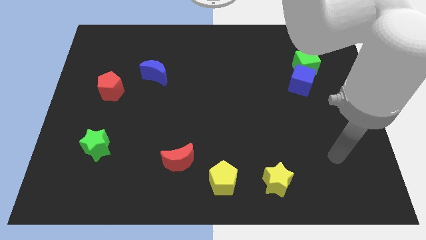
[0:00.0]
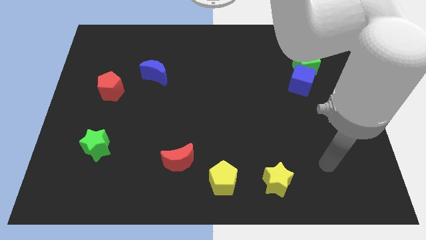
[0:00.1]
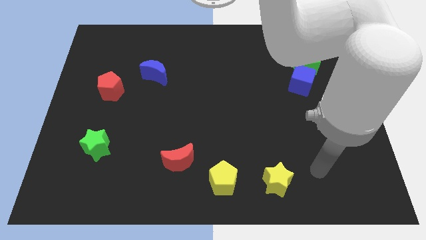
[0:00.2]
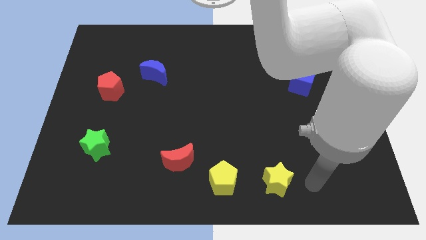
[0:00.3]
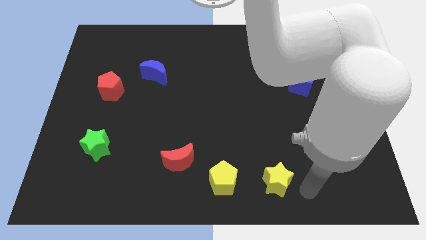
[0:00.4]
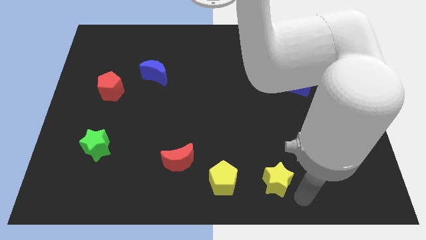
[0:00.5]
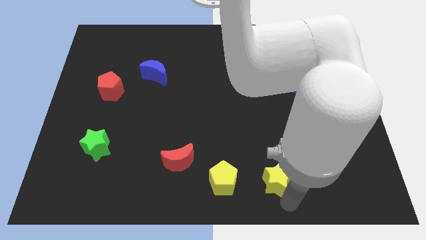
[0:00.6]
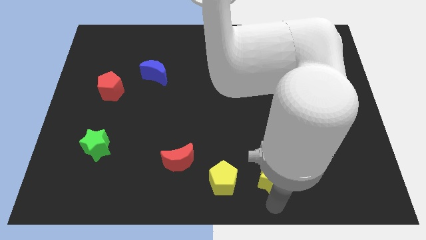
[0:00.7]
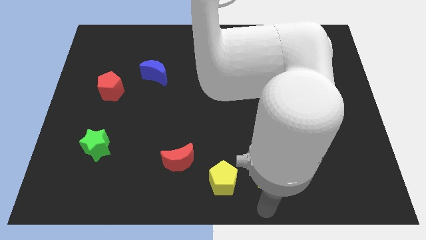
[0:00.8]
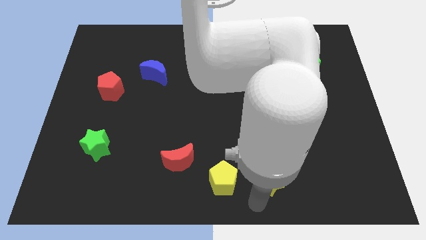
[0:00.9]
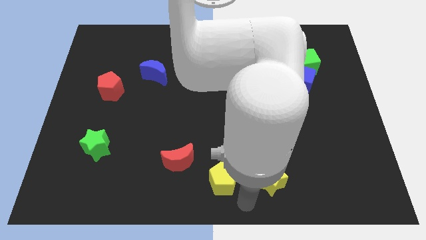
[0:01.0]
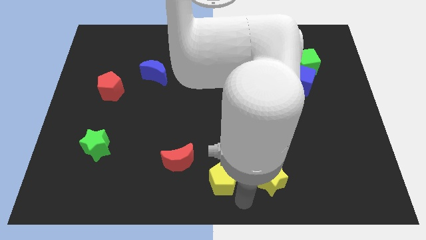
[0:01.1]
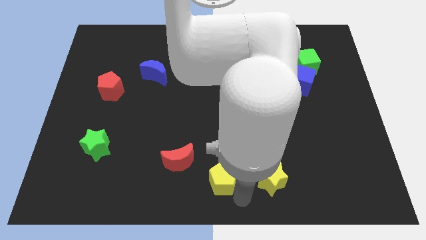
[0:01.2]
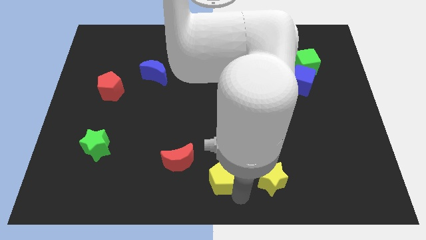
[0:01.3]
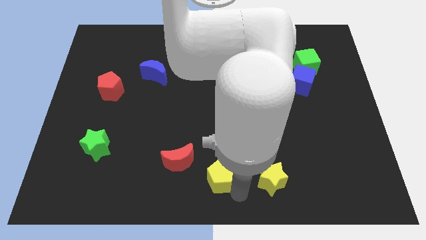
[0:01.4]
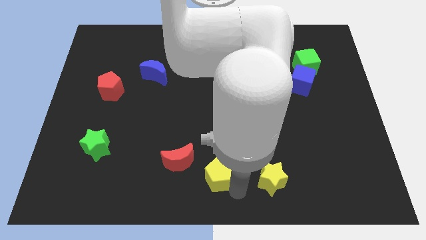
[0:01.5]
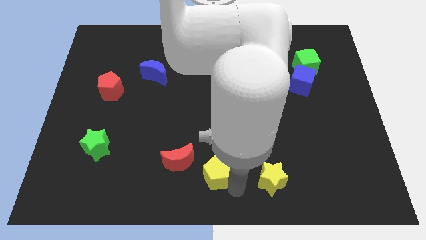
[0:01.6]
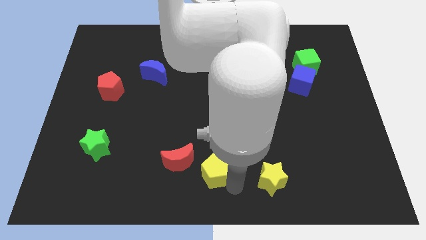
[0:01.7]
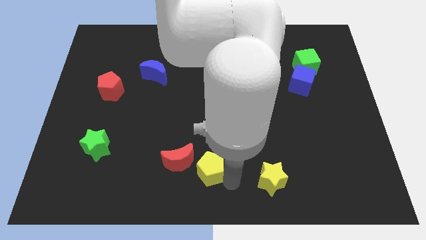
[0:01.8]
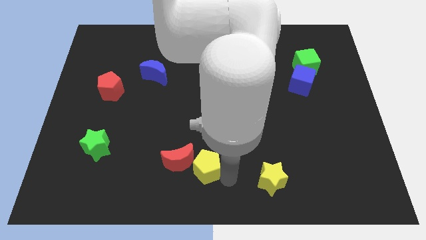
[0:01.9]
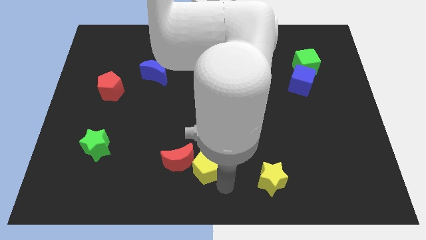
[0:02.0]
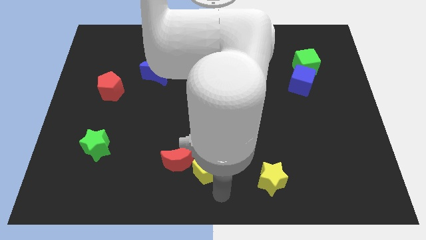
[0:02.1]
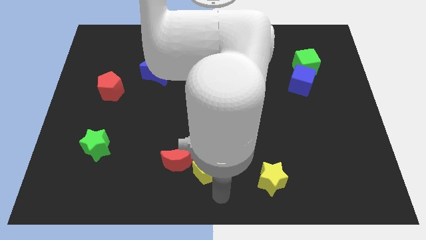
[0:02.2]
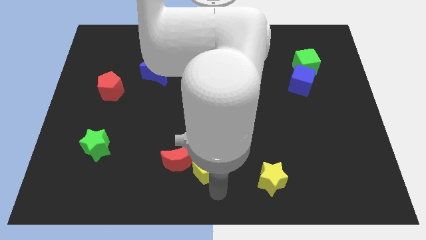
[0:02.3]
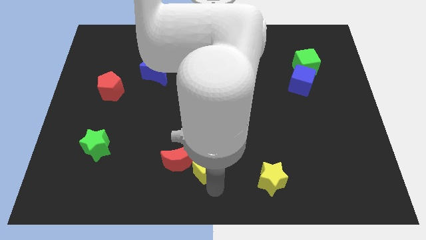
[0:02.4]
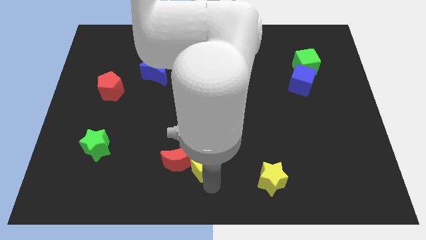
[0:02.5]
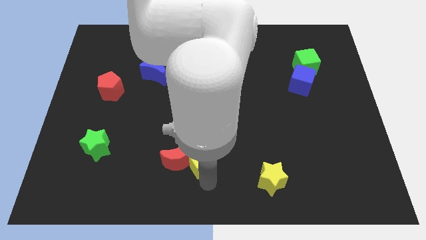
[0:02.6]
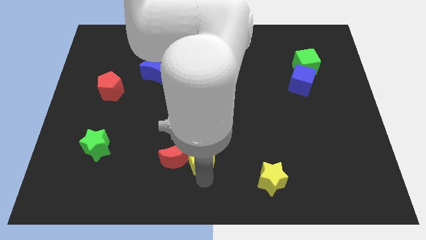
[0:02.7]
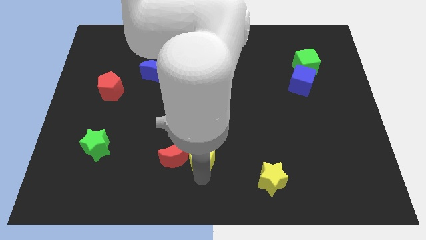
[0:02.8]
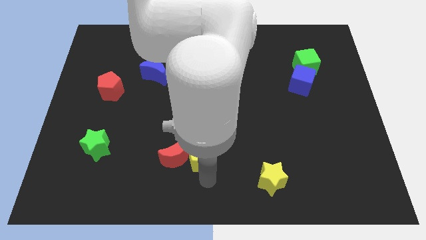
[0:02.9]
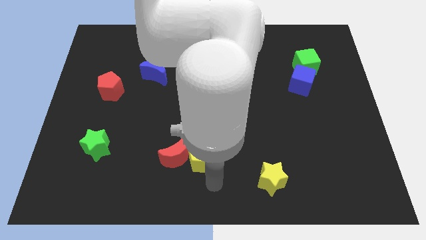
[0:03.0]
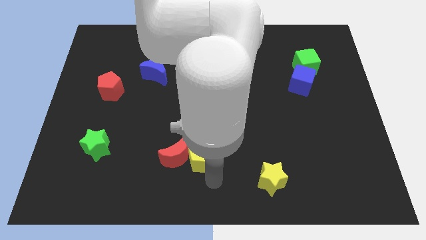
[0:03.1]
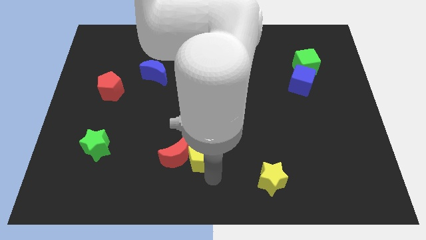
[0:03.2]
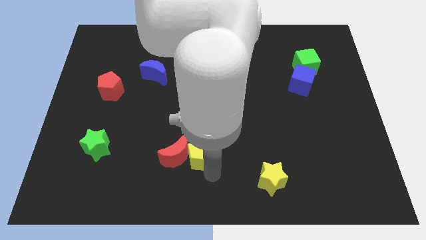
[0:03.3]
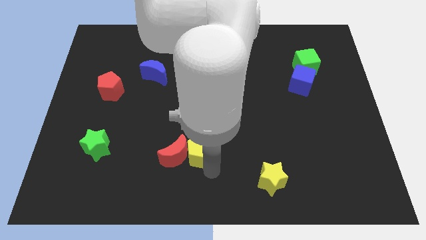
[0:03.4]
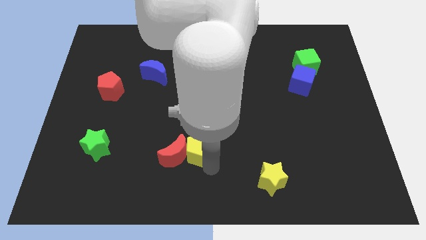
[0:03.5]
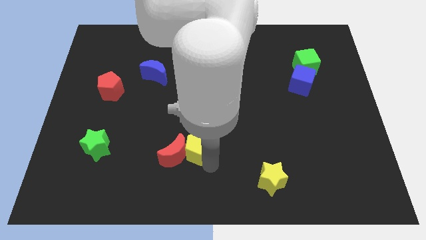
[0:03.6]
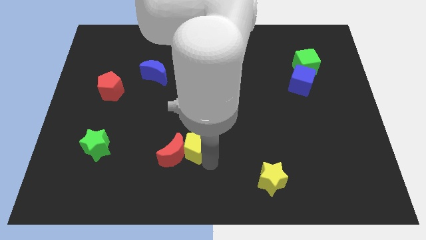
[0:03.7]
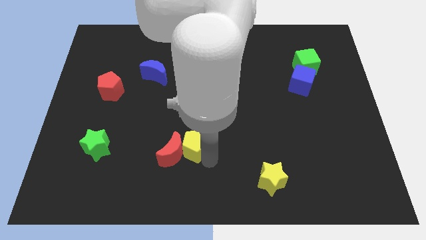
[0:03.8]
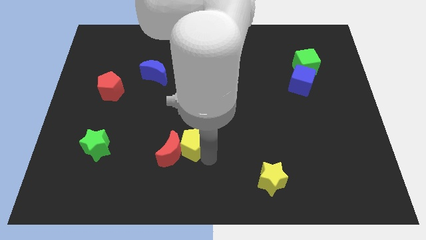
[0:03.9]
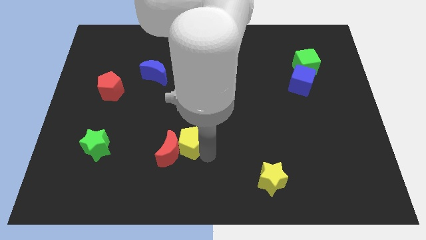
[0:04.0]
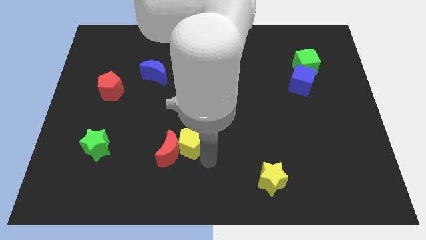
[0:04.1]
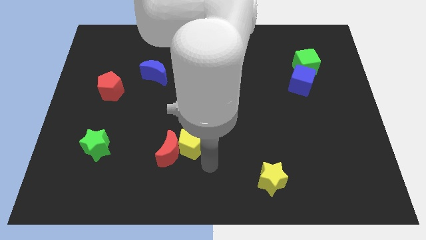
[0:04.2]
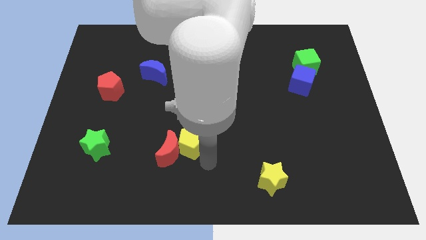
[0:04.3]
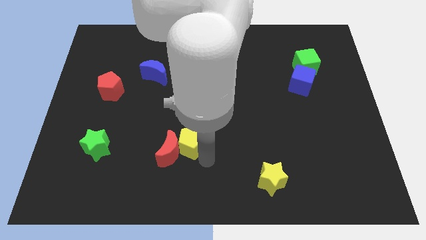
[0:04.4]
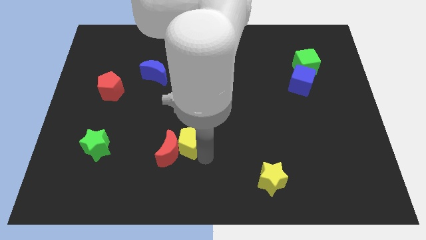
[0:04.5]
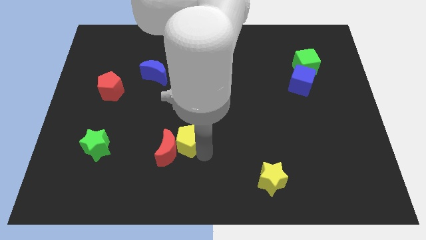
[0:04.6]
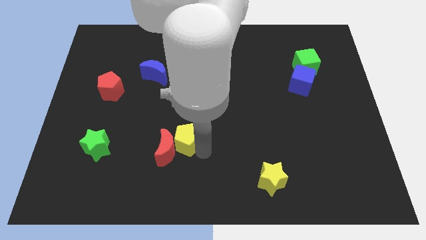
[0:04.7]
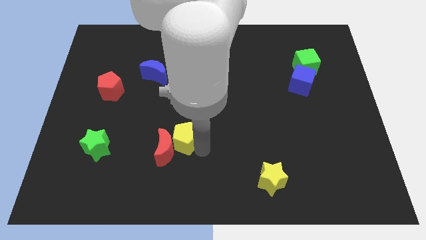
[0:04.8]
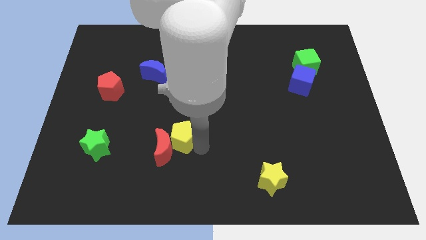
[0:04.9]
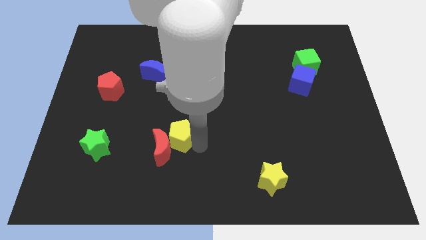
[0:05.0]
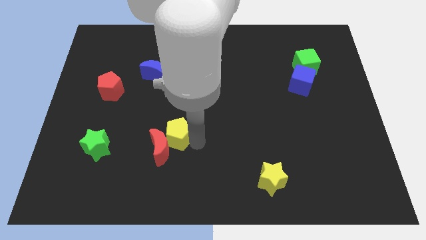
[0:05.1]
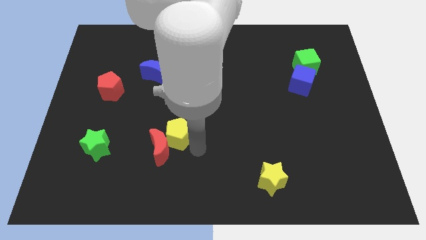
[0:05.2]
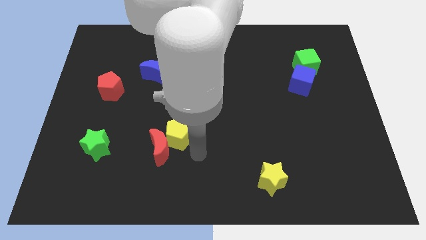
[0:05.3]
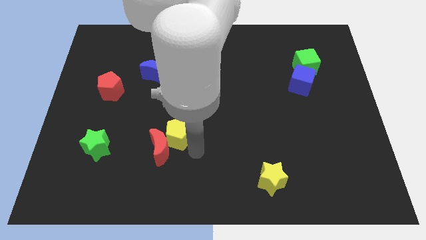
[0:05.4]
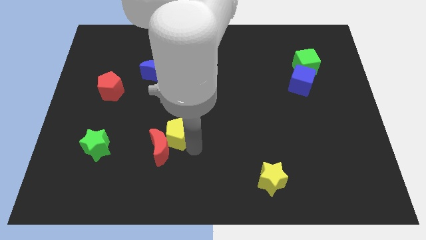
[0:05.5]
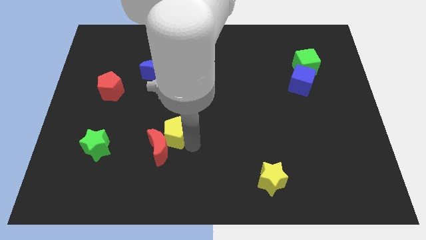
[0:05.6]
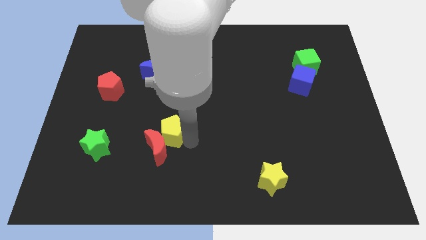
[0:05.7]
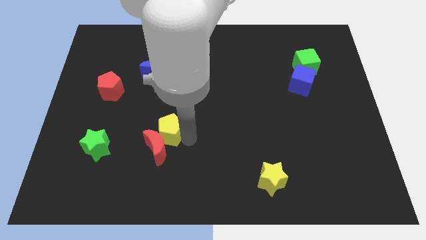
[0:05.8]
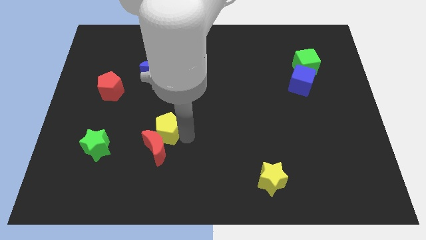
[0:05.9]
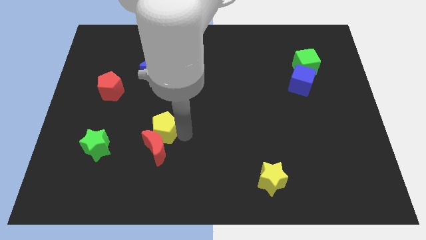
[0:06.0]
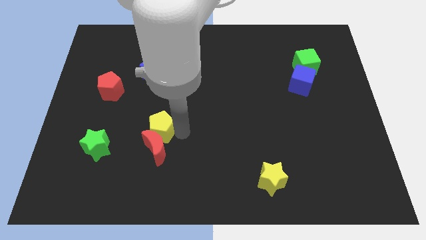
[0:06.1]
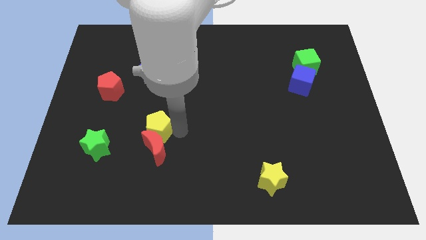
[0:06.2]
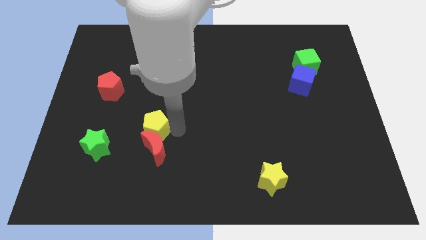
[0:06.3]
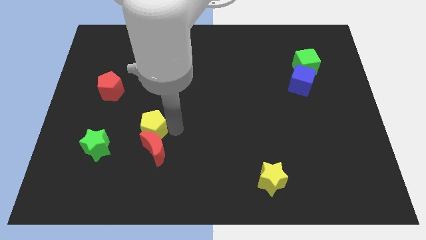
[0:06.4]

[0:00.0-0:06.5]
push the yellow pentagon upwards and to the left diagonally

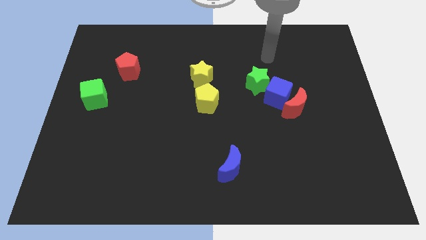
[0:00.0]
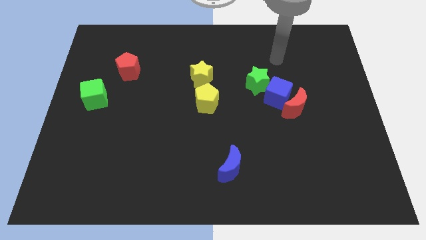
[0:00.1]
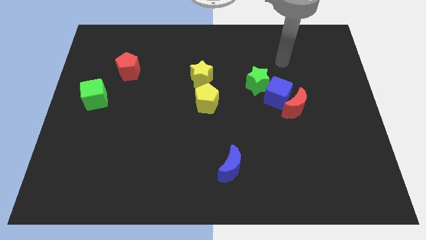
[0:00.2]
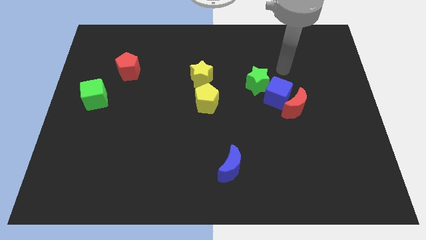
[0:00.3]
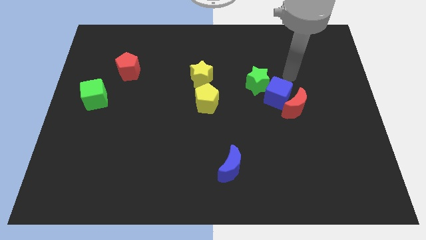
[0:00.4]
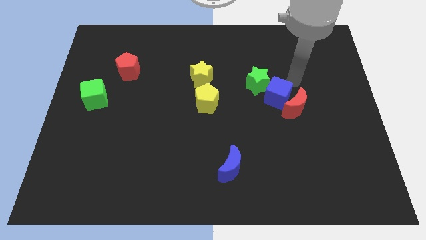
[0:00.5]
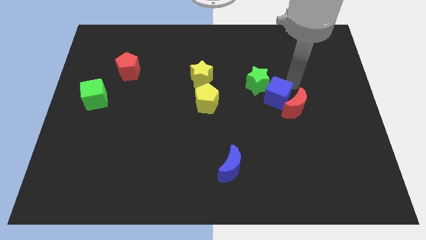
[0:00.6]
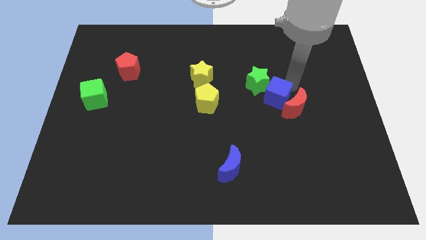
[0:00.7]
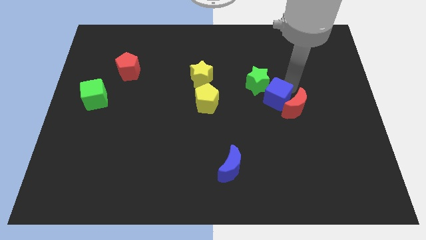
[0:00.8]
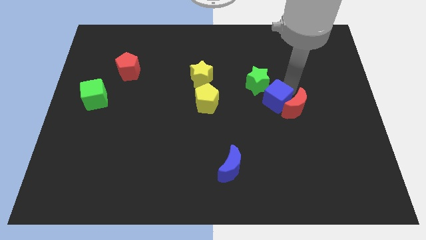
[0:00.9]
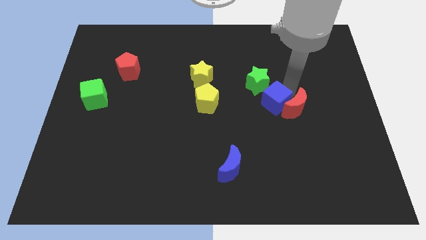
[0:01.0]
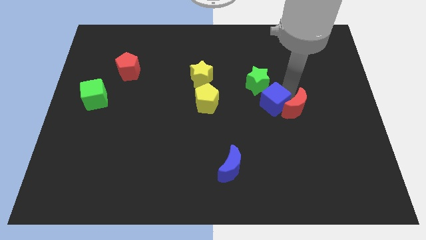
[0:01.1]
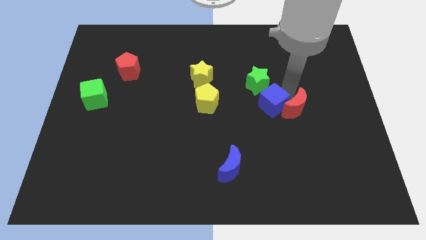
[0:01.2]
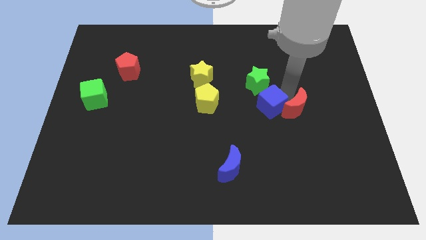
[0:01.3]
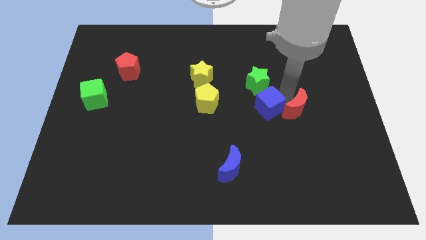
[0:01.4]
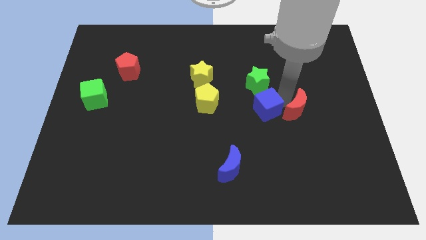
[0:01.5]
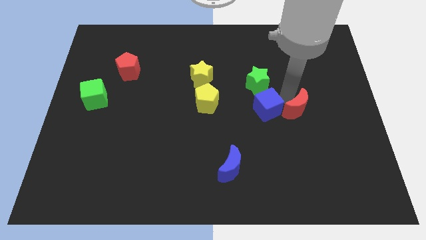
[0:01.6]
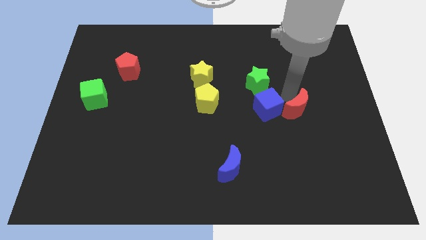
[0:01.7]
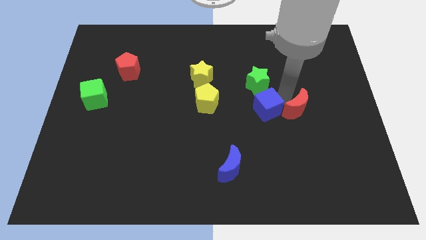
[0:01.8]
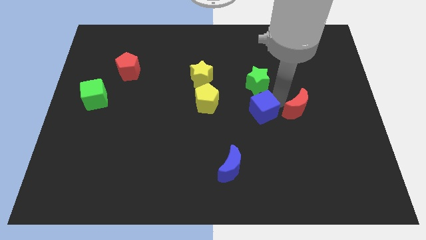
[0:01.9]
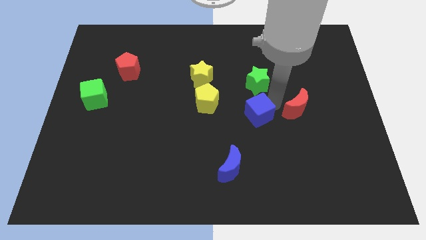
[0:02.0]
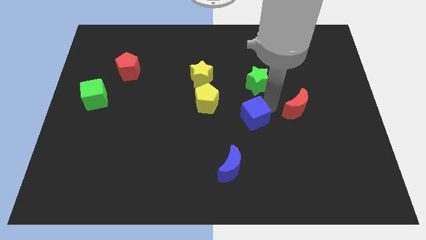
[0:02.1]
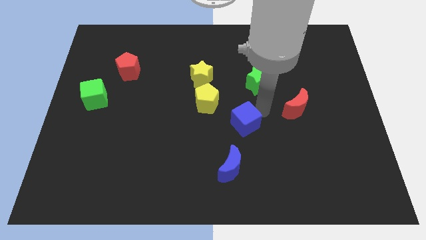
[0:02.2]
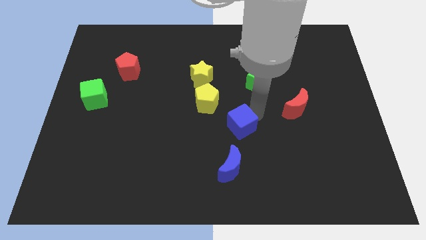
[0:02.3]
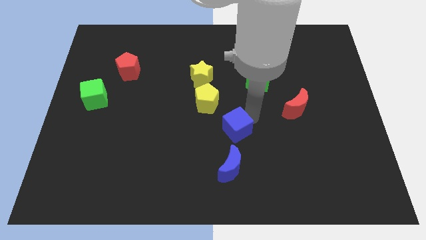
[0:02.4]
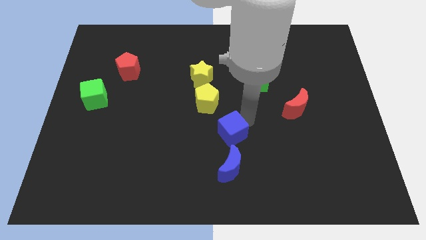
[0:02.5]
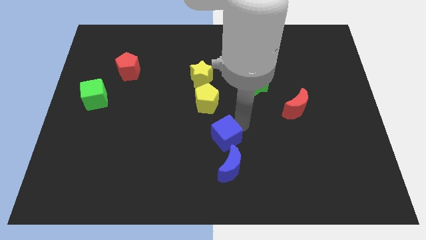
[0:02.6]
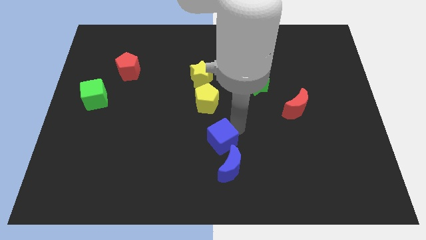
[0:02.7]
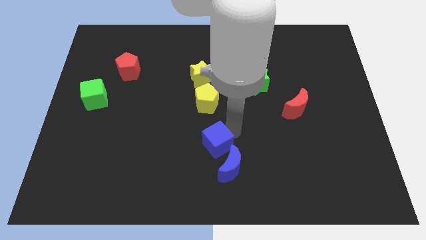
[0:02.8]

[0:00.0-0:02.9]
push the blue cube downwards and to the left diagonally
